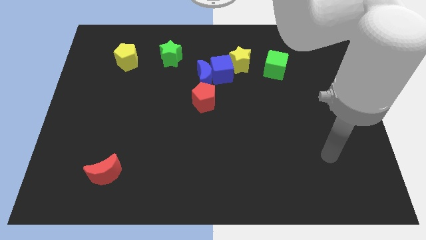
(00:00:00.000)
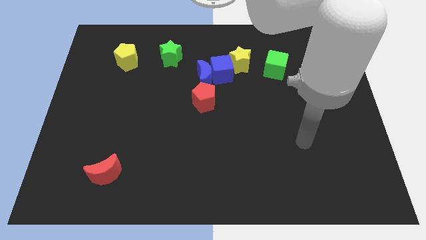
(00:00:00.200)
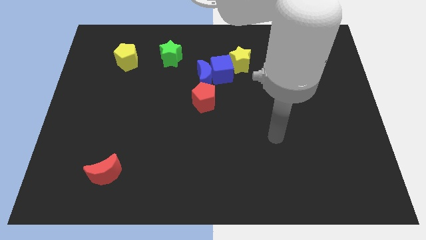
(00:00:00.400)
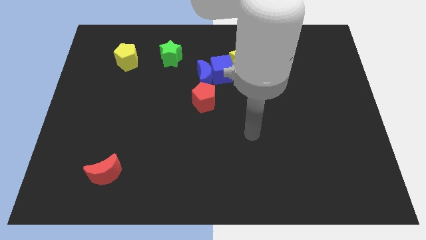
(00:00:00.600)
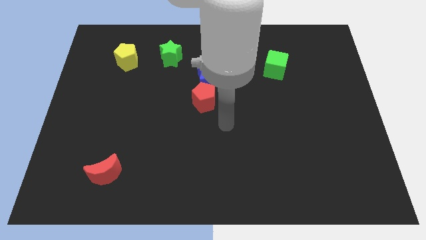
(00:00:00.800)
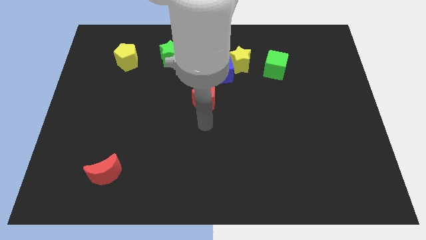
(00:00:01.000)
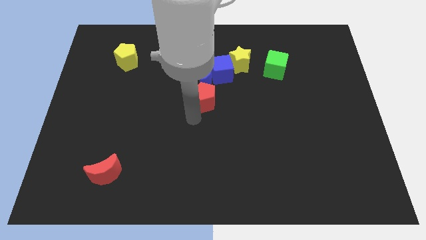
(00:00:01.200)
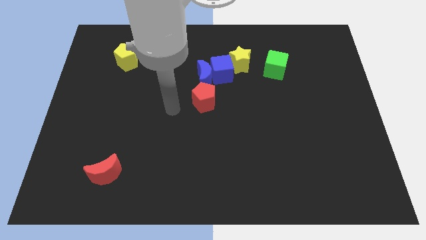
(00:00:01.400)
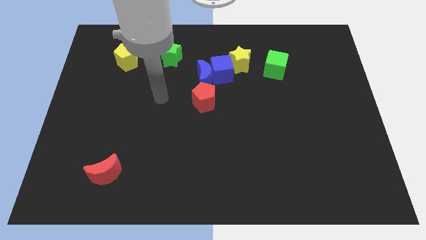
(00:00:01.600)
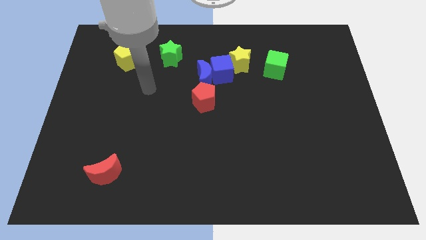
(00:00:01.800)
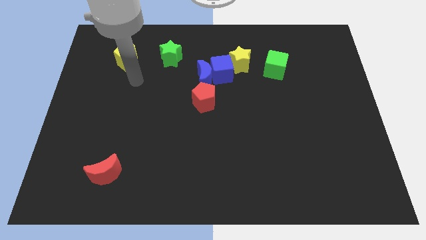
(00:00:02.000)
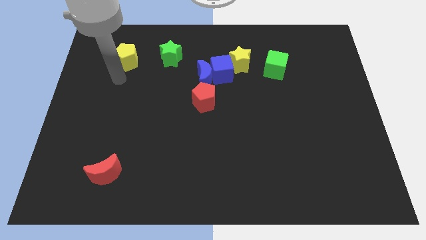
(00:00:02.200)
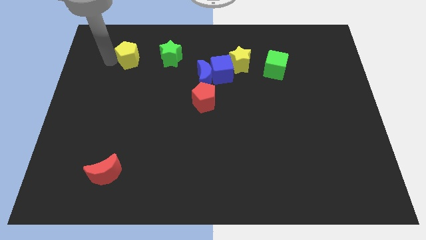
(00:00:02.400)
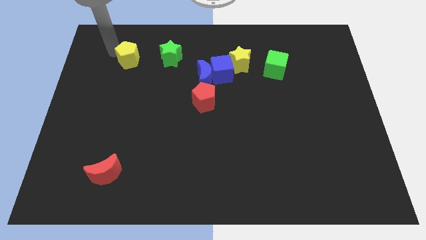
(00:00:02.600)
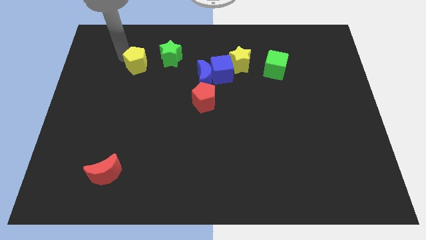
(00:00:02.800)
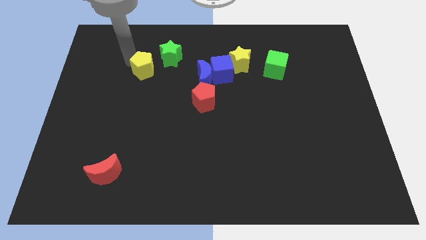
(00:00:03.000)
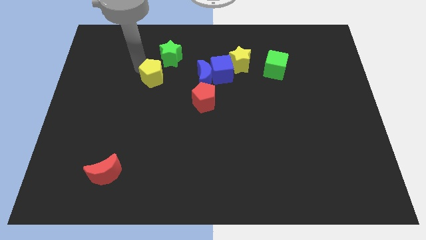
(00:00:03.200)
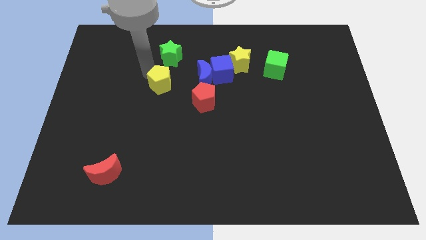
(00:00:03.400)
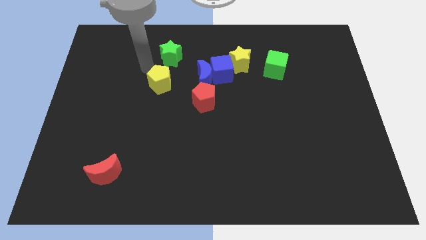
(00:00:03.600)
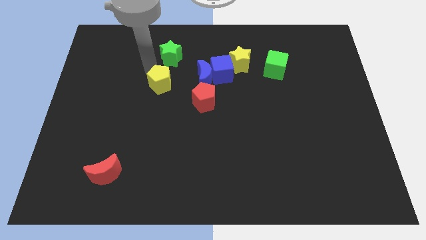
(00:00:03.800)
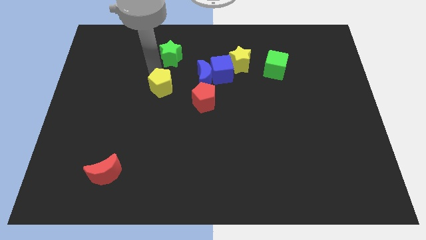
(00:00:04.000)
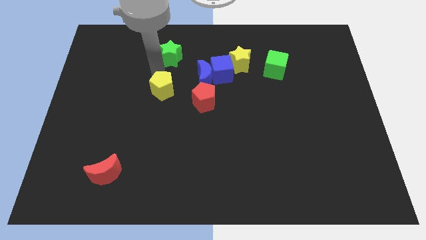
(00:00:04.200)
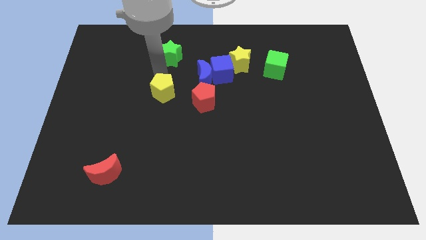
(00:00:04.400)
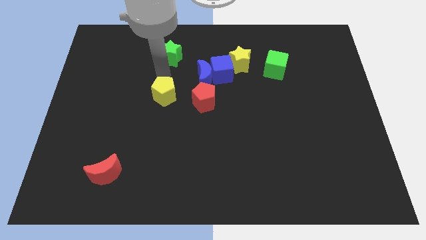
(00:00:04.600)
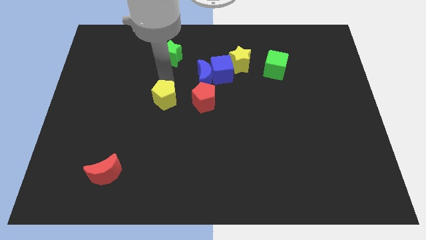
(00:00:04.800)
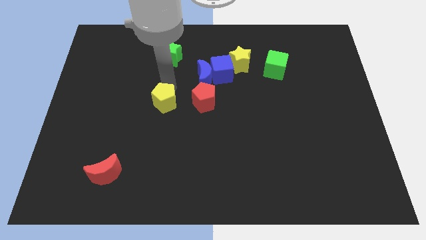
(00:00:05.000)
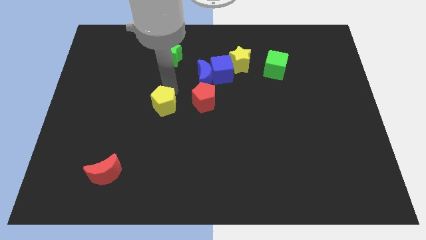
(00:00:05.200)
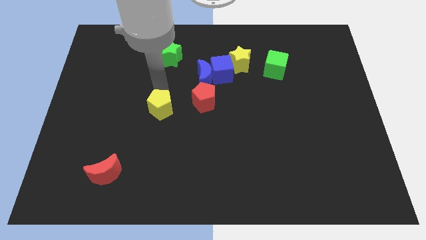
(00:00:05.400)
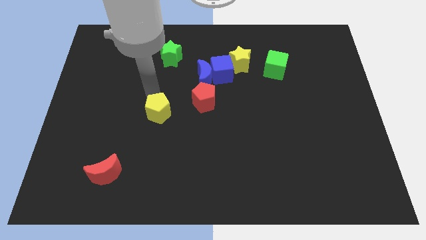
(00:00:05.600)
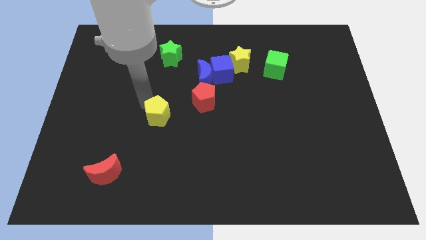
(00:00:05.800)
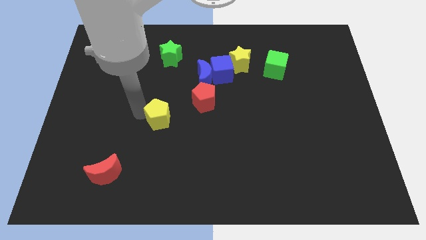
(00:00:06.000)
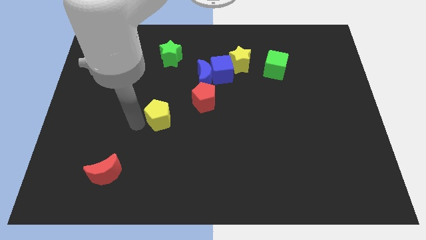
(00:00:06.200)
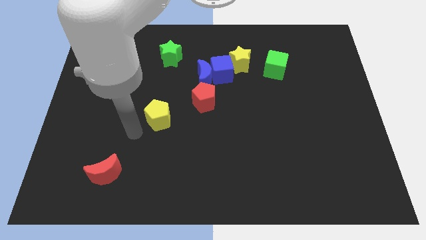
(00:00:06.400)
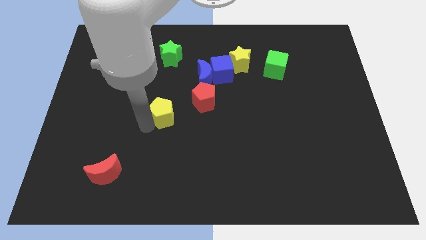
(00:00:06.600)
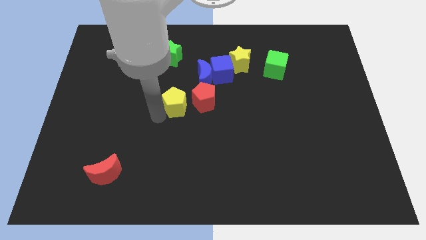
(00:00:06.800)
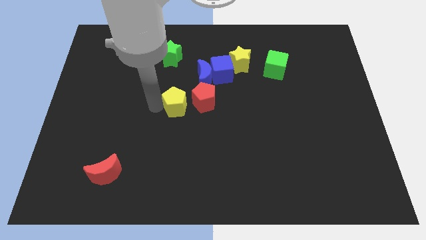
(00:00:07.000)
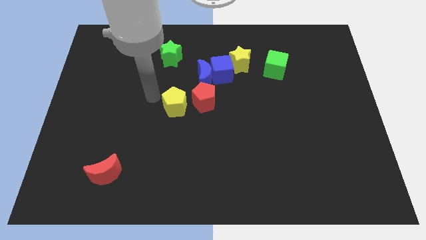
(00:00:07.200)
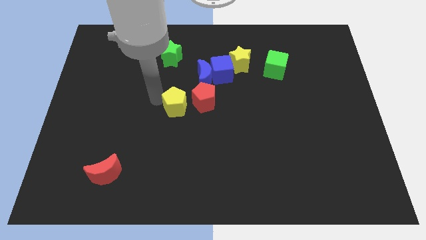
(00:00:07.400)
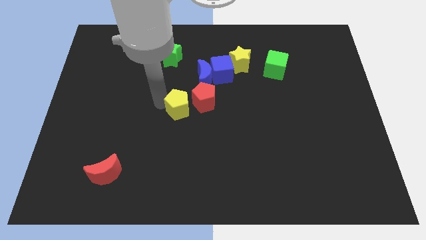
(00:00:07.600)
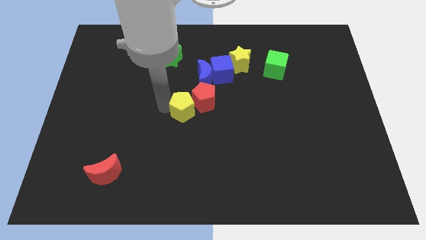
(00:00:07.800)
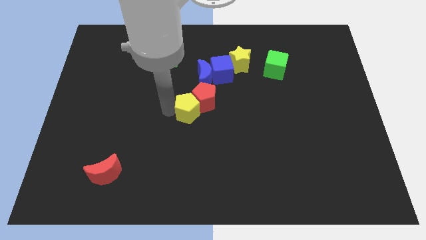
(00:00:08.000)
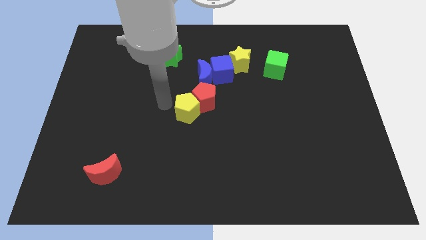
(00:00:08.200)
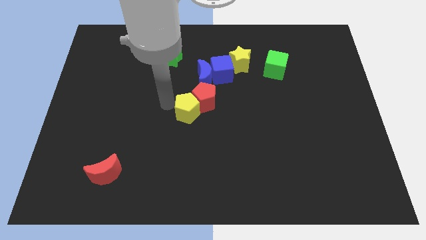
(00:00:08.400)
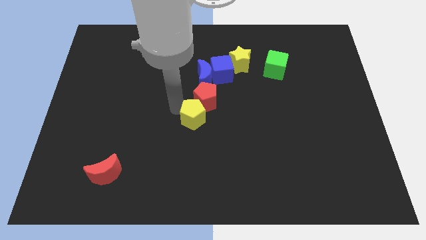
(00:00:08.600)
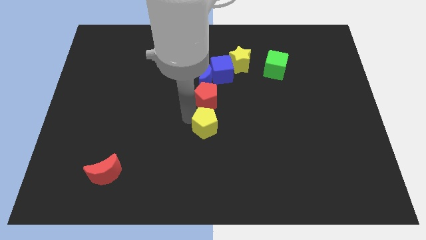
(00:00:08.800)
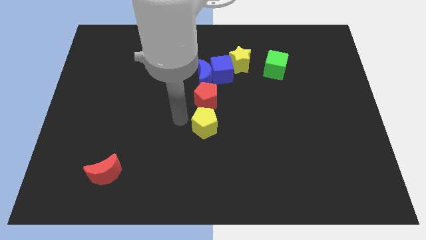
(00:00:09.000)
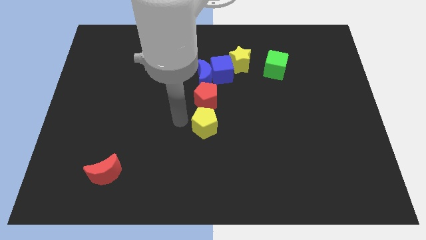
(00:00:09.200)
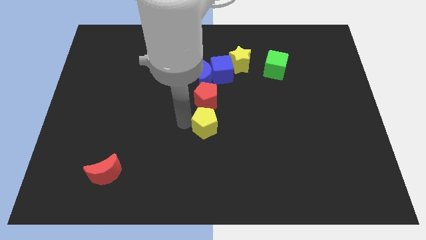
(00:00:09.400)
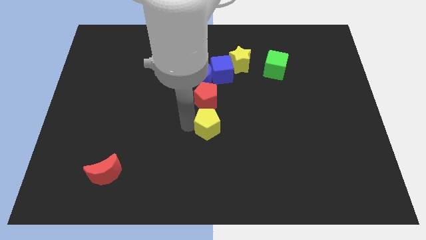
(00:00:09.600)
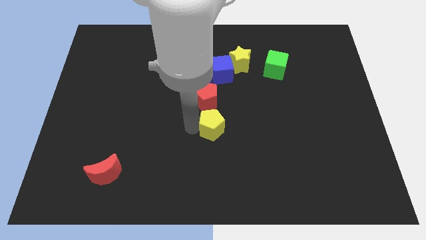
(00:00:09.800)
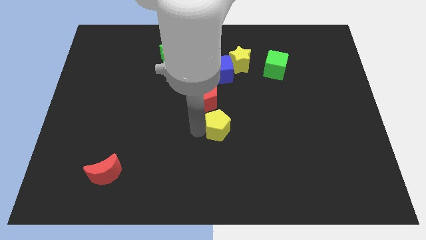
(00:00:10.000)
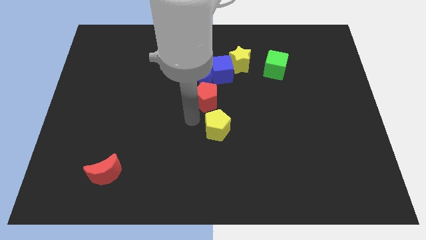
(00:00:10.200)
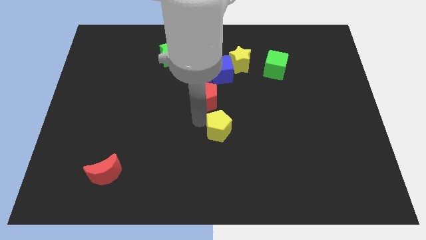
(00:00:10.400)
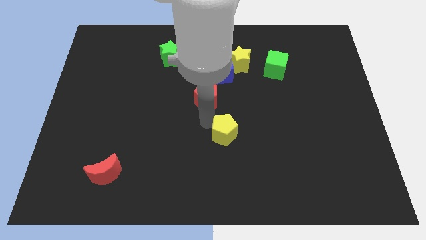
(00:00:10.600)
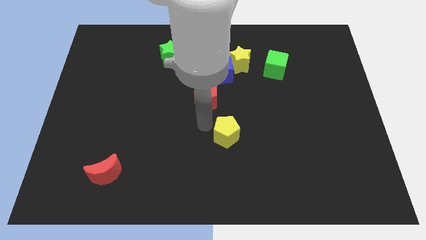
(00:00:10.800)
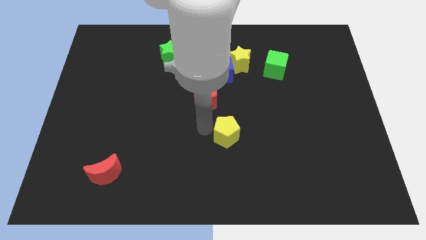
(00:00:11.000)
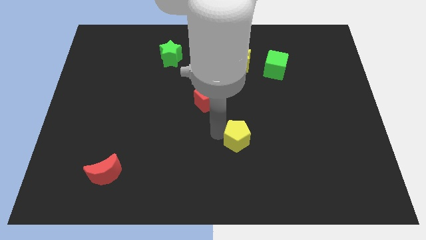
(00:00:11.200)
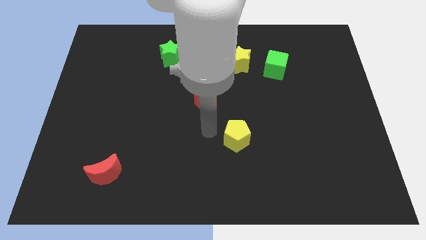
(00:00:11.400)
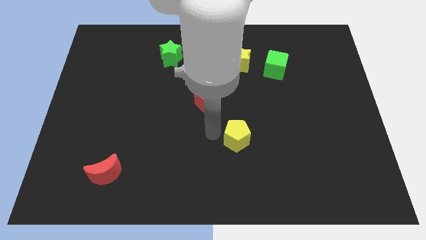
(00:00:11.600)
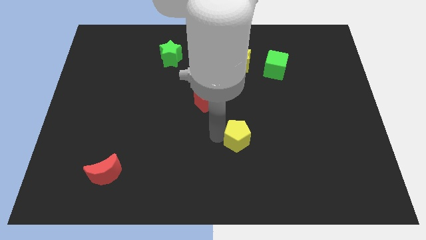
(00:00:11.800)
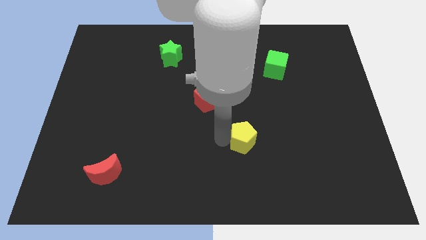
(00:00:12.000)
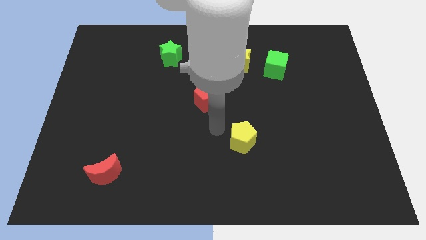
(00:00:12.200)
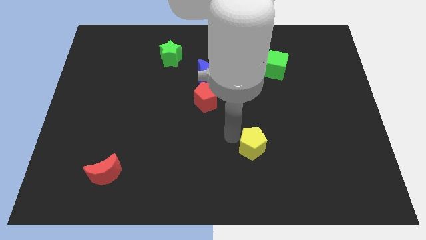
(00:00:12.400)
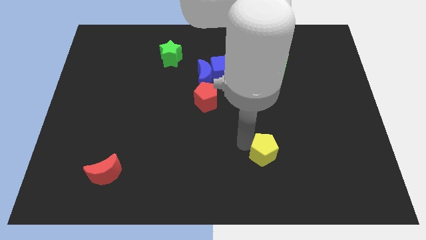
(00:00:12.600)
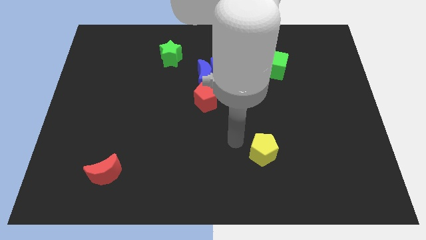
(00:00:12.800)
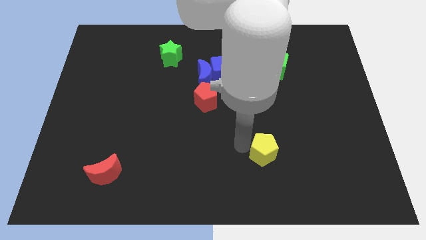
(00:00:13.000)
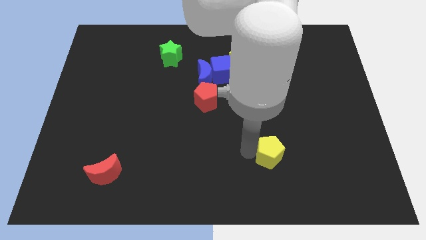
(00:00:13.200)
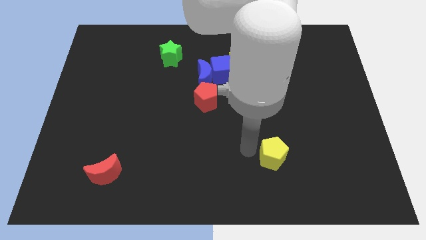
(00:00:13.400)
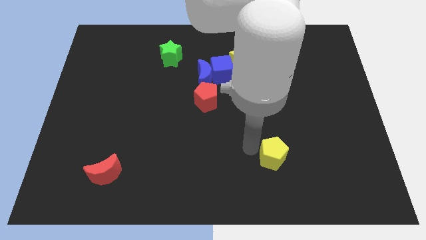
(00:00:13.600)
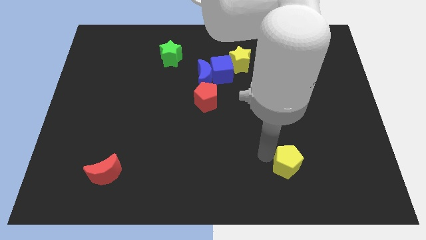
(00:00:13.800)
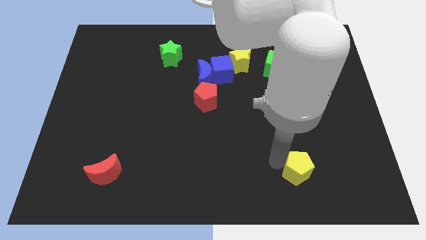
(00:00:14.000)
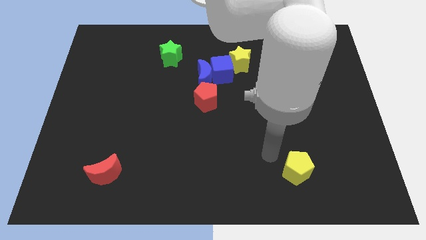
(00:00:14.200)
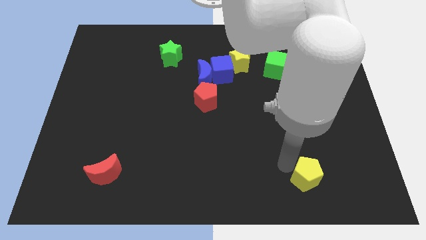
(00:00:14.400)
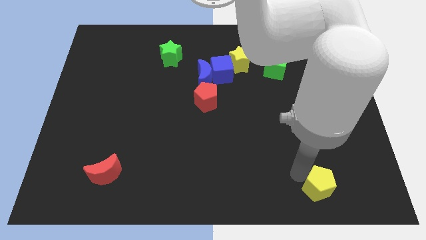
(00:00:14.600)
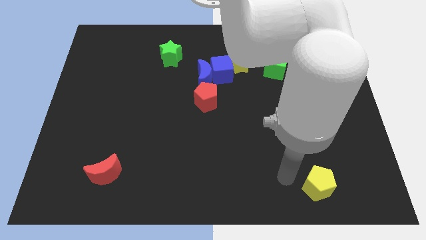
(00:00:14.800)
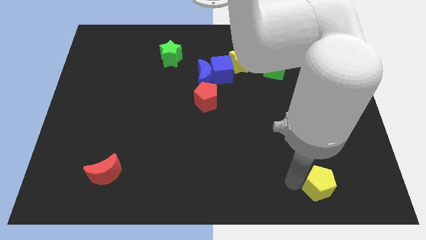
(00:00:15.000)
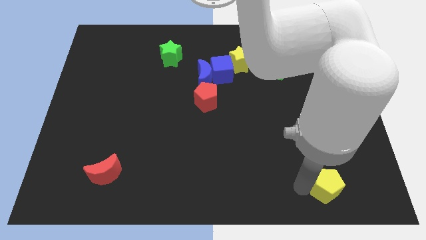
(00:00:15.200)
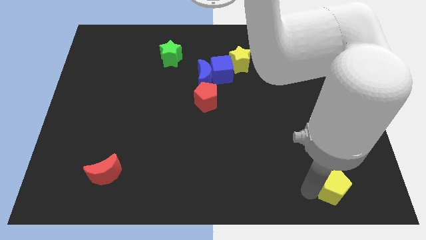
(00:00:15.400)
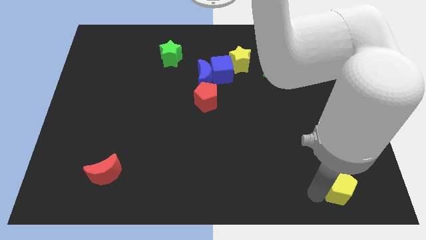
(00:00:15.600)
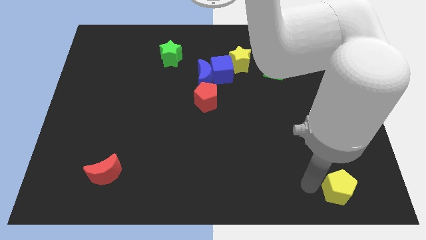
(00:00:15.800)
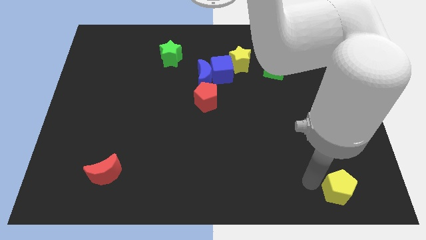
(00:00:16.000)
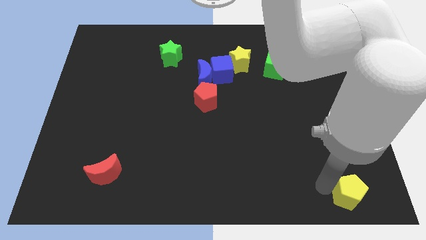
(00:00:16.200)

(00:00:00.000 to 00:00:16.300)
put the yellow pentagon to the lower right corner
